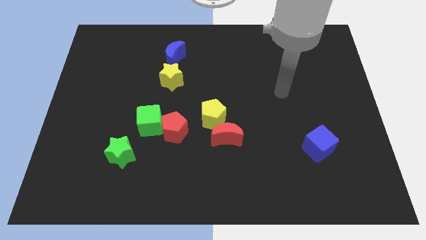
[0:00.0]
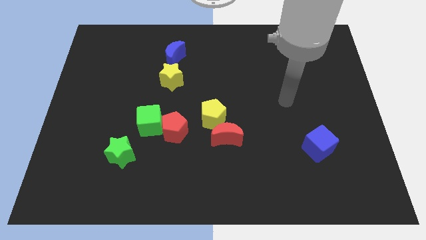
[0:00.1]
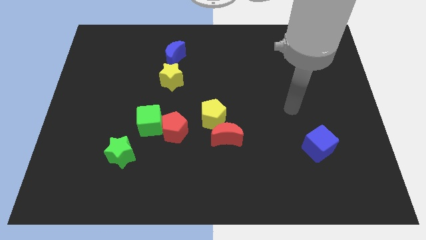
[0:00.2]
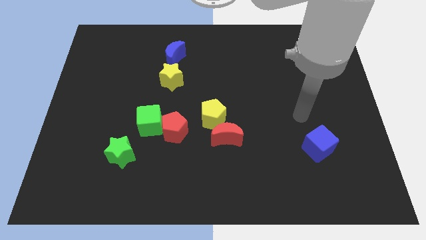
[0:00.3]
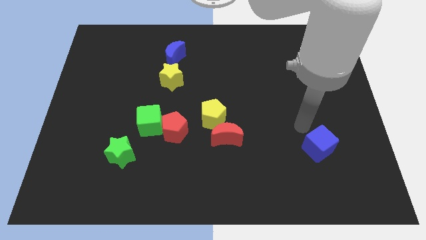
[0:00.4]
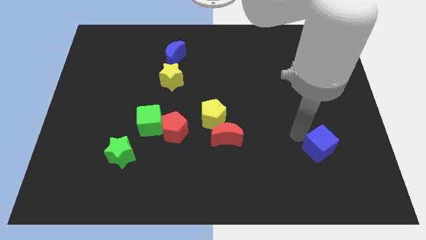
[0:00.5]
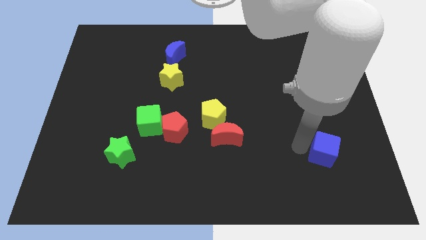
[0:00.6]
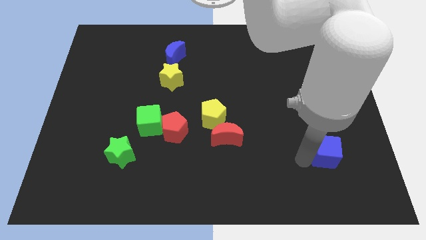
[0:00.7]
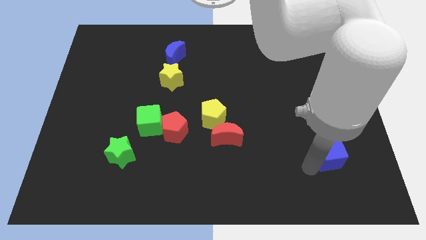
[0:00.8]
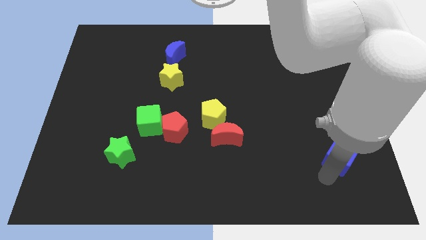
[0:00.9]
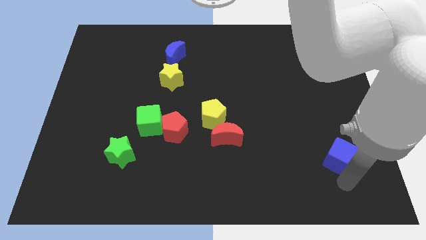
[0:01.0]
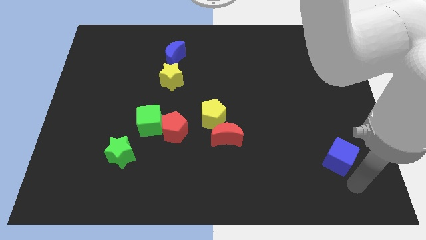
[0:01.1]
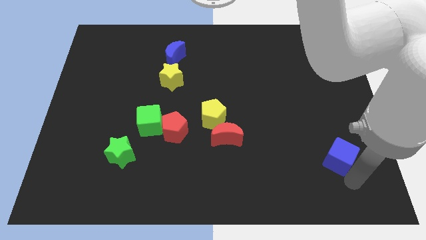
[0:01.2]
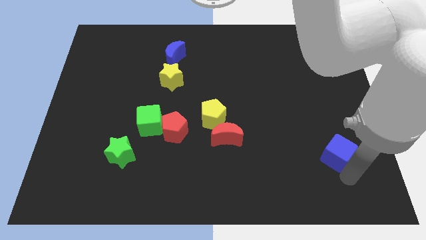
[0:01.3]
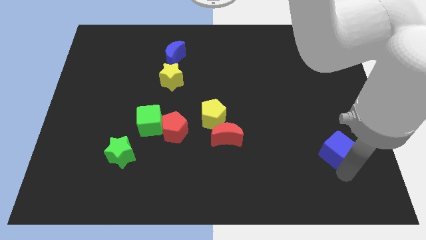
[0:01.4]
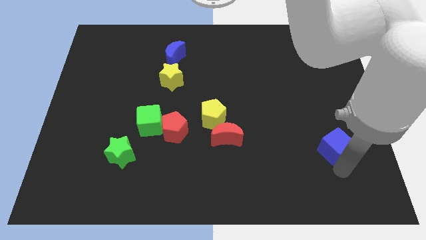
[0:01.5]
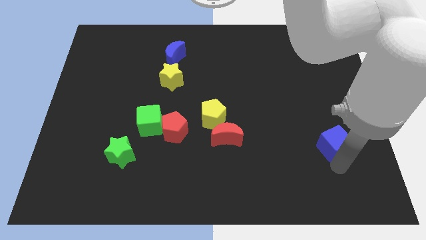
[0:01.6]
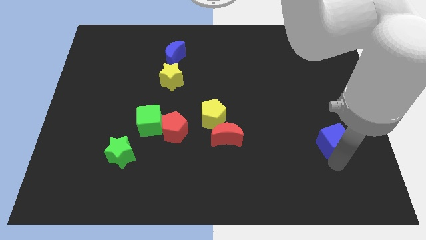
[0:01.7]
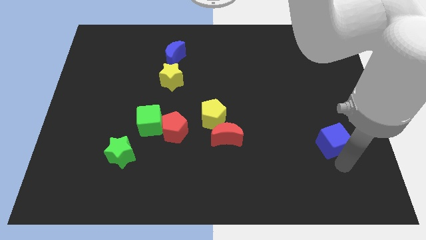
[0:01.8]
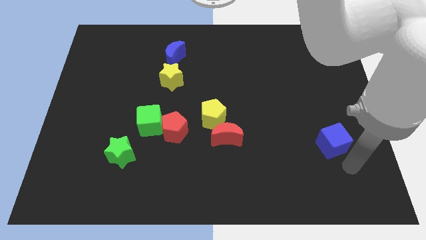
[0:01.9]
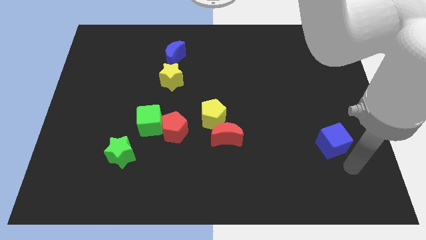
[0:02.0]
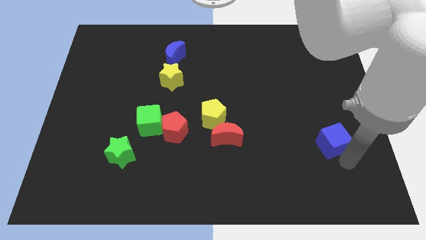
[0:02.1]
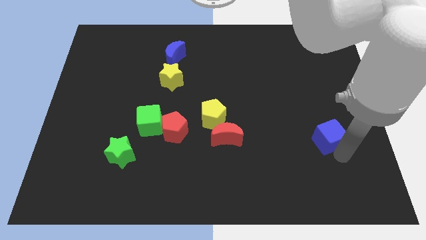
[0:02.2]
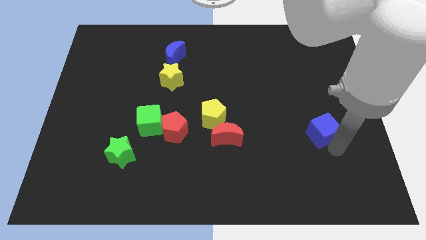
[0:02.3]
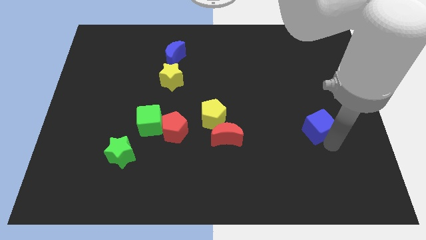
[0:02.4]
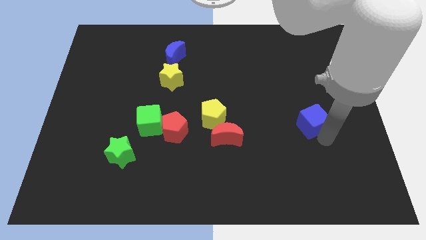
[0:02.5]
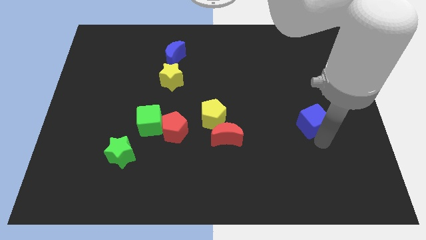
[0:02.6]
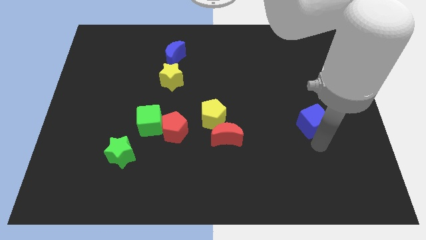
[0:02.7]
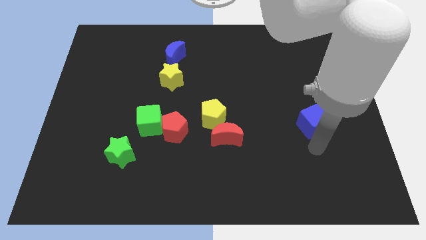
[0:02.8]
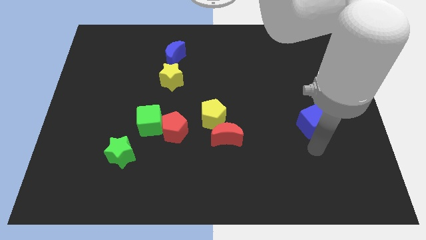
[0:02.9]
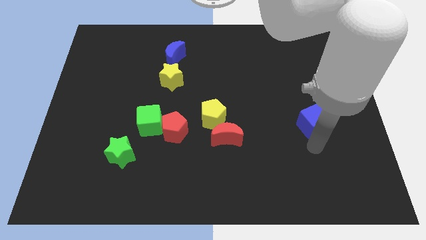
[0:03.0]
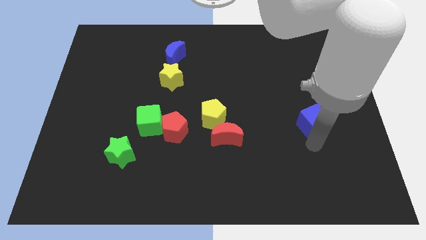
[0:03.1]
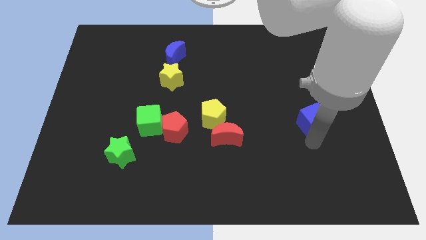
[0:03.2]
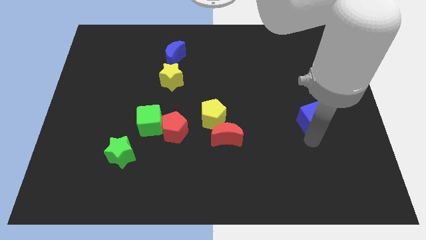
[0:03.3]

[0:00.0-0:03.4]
move the blue cube upwards slightly

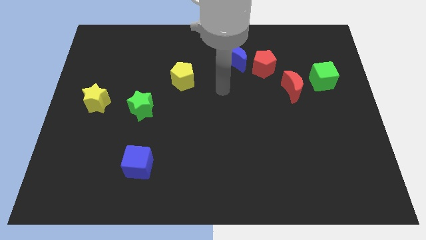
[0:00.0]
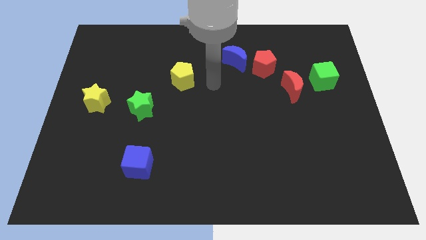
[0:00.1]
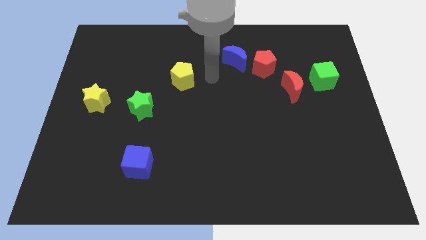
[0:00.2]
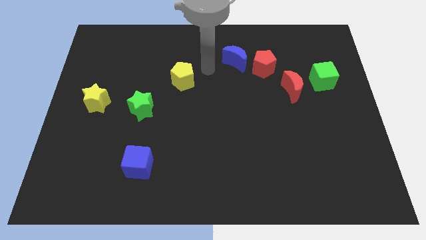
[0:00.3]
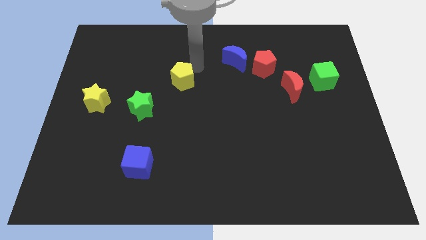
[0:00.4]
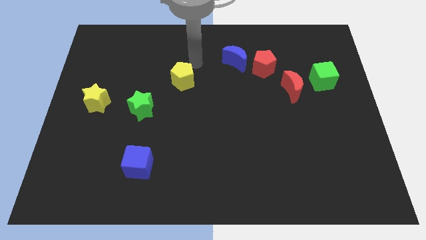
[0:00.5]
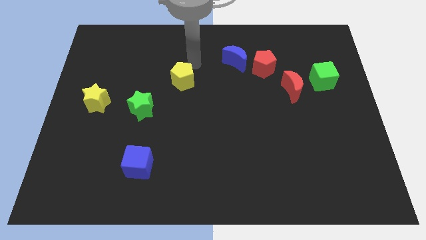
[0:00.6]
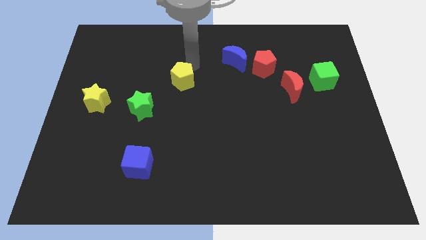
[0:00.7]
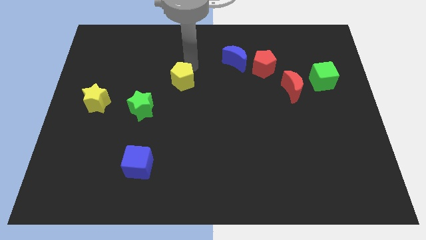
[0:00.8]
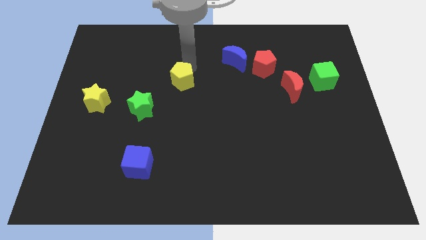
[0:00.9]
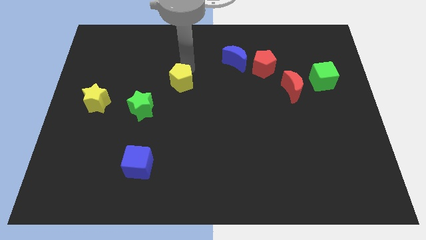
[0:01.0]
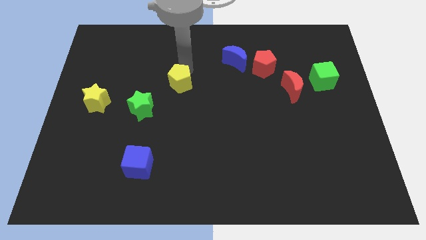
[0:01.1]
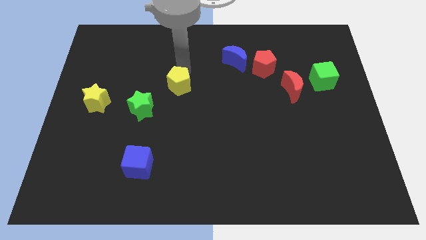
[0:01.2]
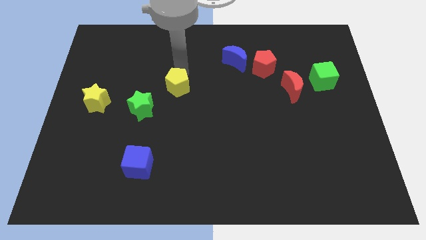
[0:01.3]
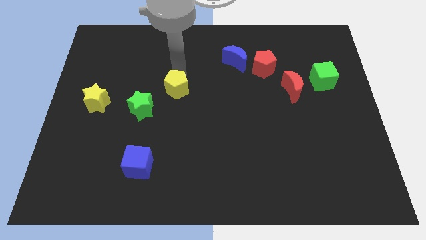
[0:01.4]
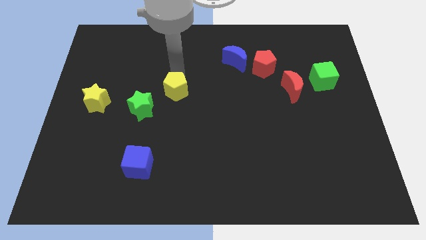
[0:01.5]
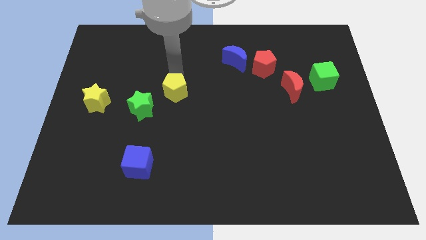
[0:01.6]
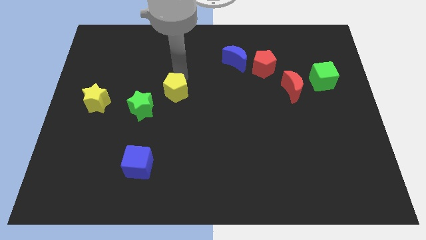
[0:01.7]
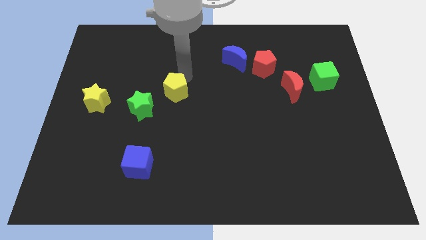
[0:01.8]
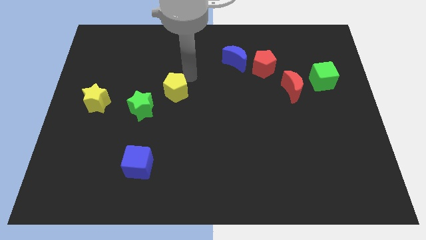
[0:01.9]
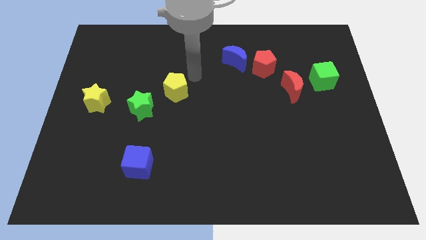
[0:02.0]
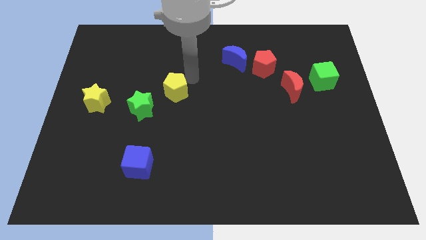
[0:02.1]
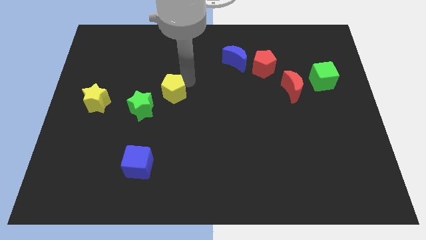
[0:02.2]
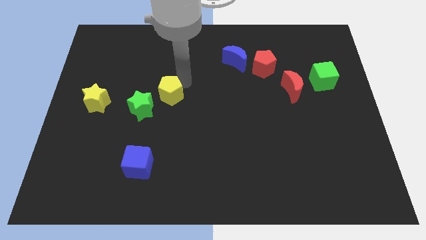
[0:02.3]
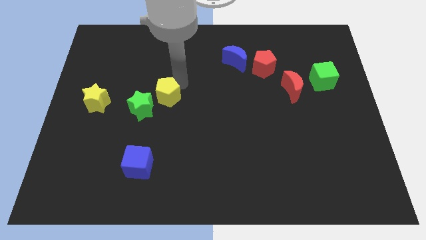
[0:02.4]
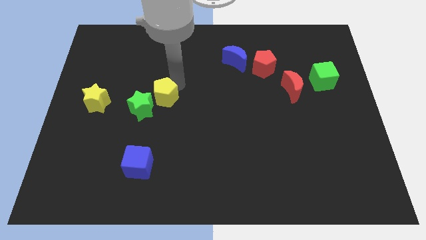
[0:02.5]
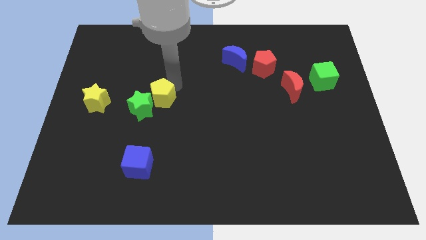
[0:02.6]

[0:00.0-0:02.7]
slightly slide the yellow pentagon diagonally downwards and to the left

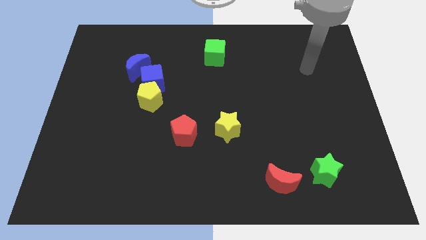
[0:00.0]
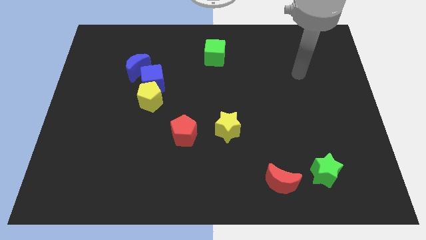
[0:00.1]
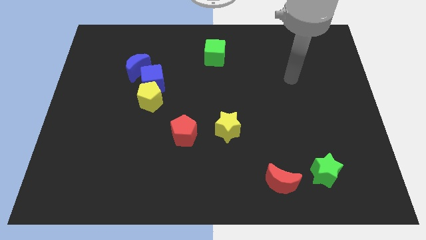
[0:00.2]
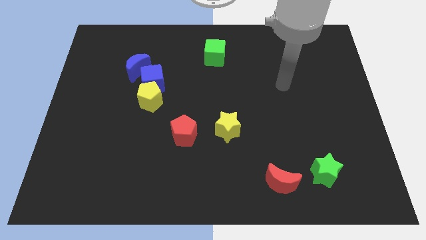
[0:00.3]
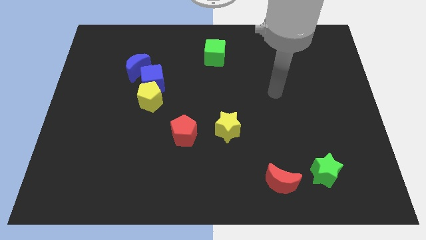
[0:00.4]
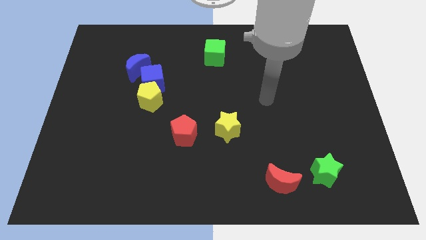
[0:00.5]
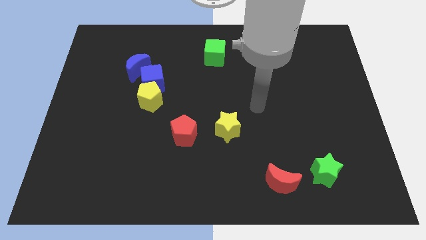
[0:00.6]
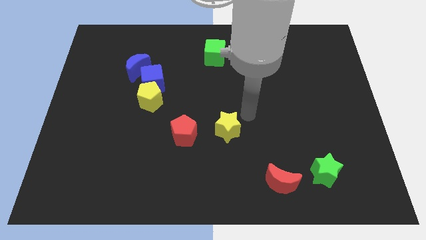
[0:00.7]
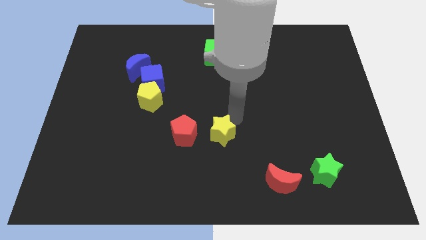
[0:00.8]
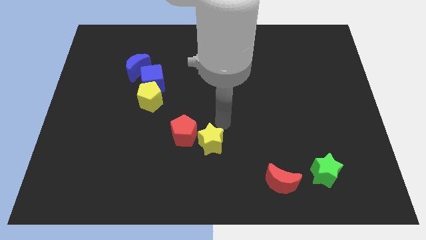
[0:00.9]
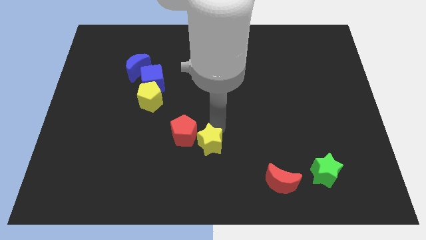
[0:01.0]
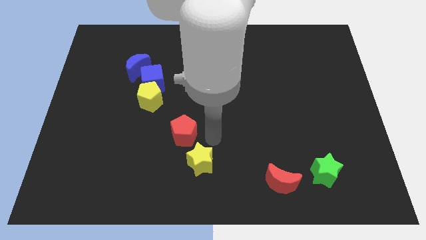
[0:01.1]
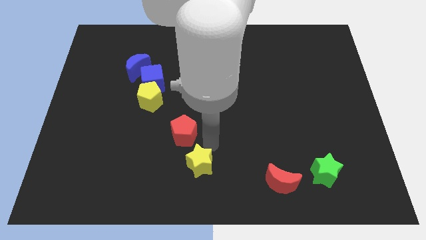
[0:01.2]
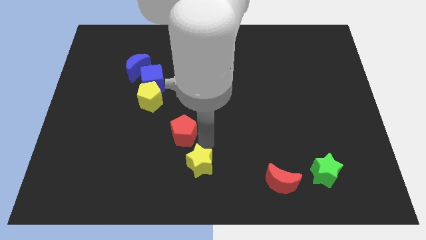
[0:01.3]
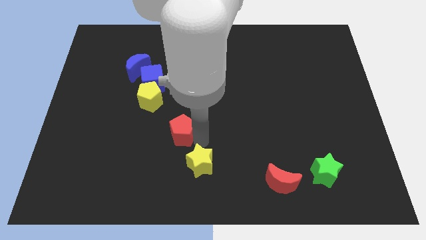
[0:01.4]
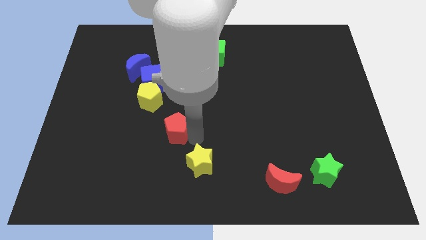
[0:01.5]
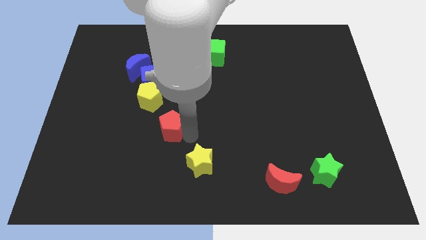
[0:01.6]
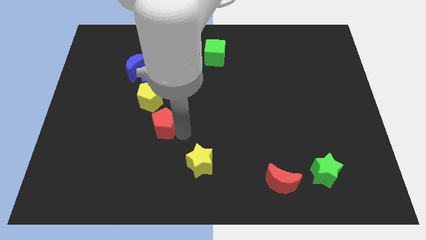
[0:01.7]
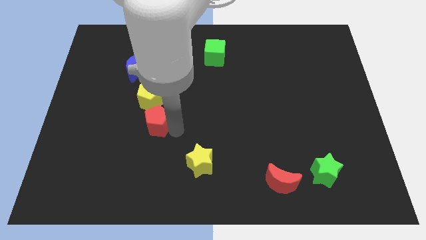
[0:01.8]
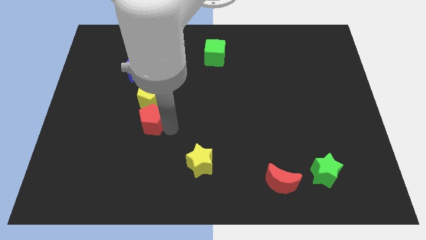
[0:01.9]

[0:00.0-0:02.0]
move the red pentagon diagonally up and left a little

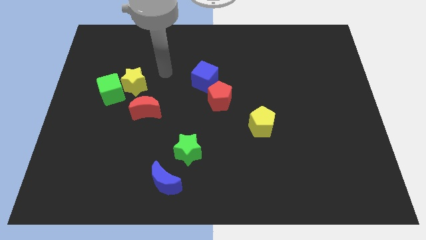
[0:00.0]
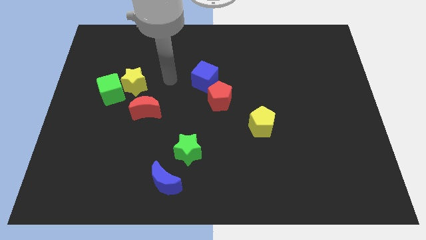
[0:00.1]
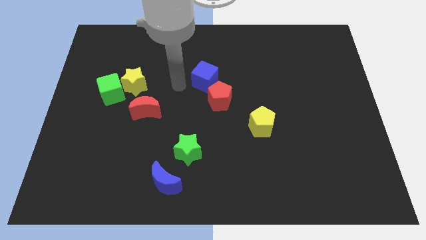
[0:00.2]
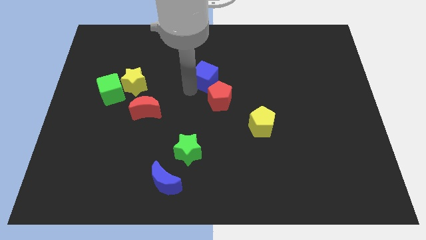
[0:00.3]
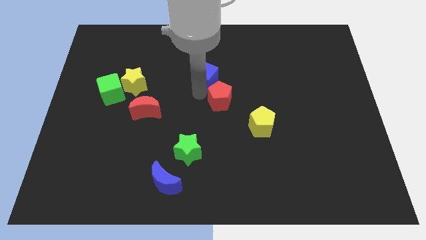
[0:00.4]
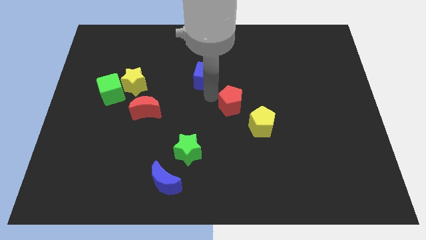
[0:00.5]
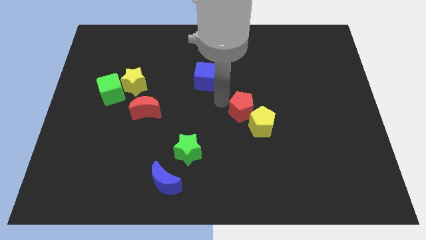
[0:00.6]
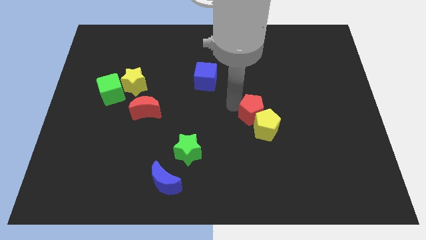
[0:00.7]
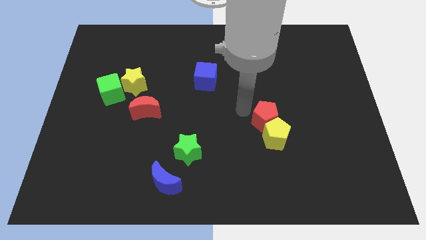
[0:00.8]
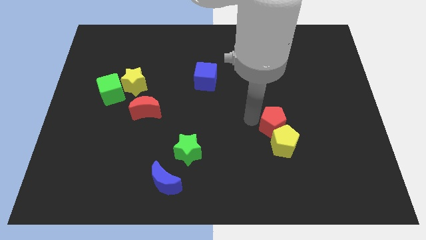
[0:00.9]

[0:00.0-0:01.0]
slide the yellow pentagon somewhat downwards and right
